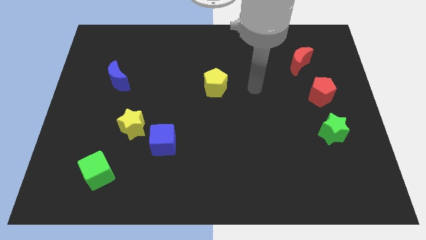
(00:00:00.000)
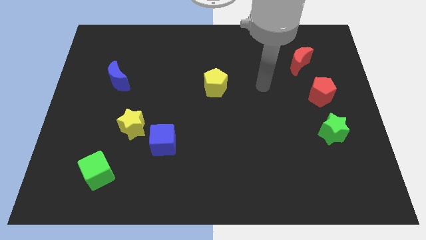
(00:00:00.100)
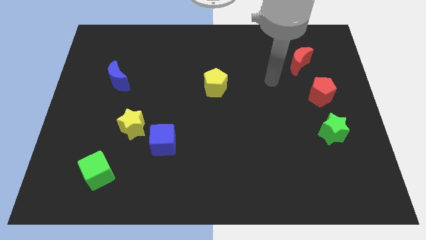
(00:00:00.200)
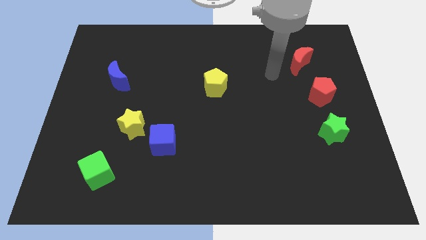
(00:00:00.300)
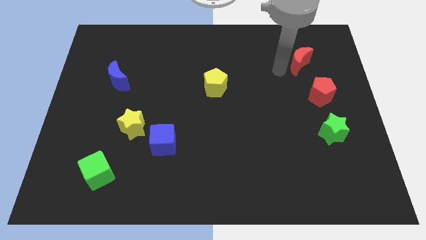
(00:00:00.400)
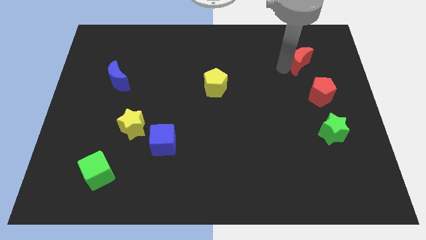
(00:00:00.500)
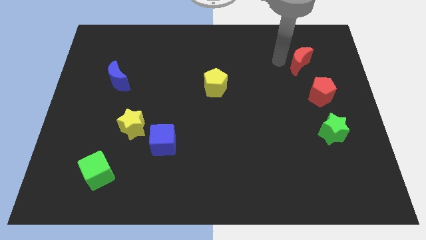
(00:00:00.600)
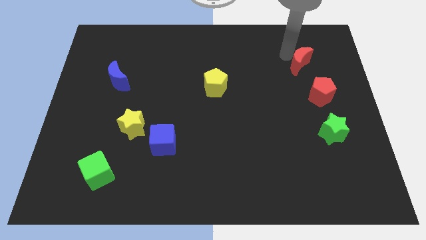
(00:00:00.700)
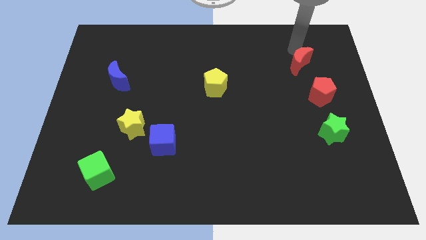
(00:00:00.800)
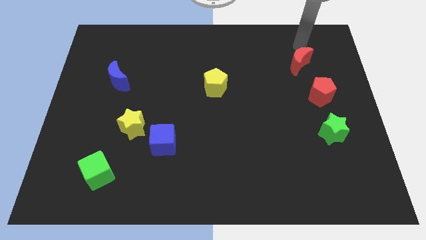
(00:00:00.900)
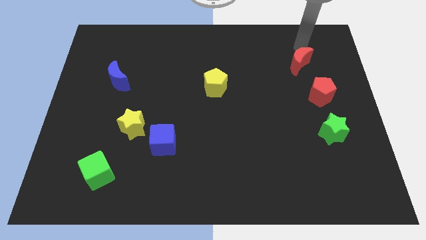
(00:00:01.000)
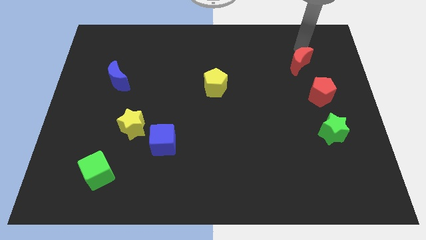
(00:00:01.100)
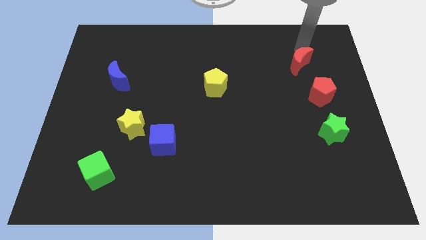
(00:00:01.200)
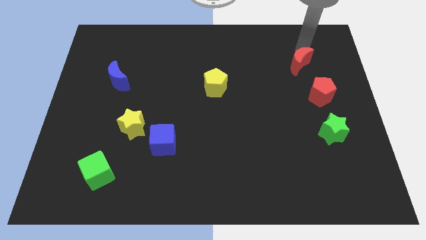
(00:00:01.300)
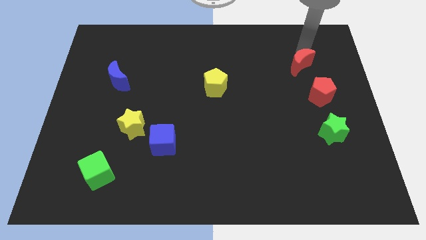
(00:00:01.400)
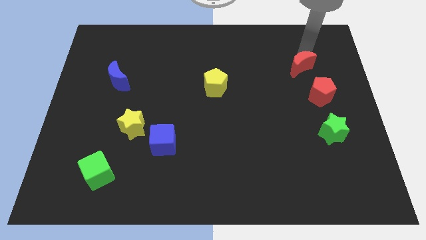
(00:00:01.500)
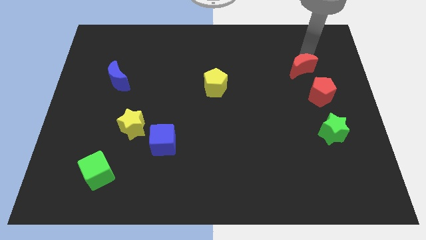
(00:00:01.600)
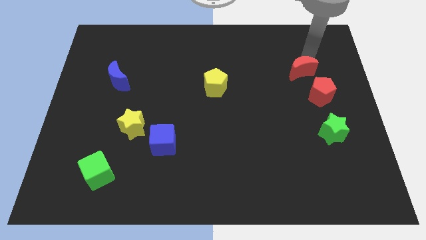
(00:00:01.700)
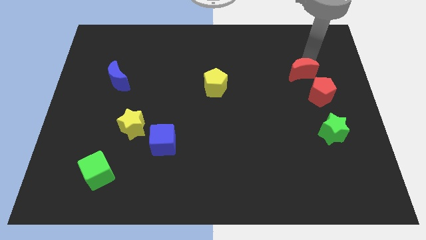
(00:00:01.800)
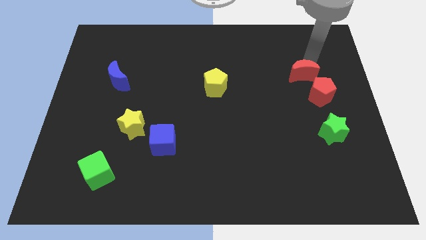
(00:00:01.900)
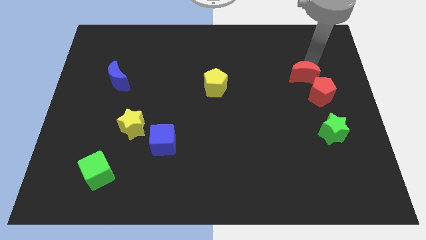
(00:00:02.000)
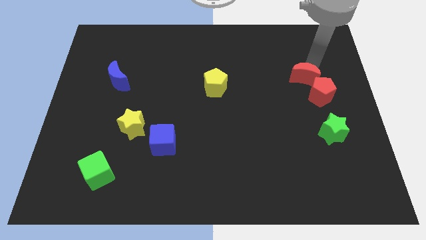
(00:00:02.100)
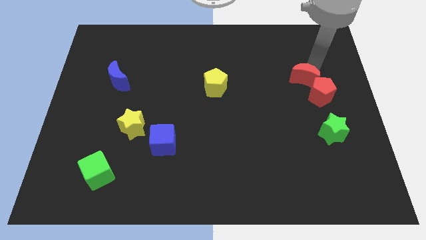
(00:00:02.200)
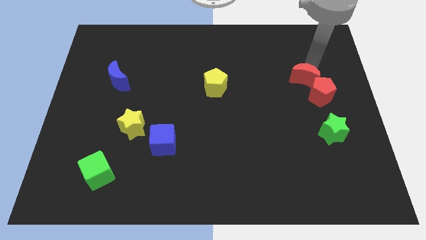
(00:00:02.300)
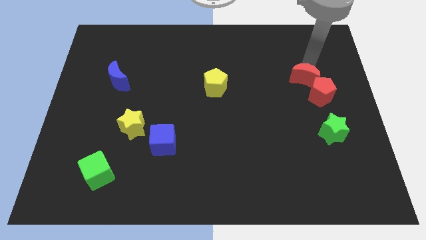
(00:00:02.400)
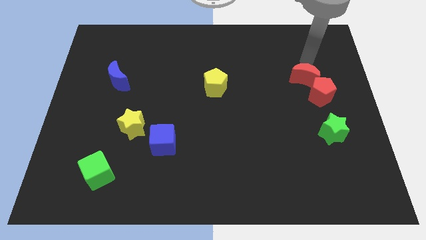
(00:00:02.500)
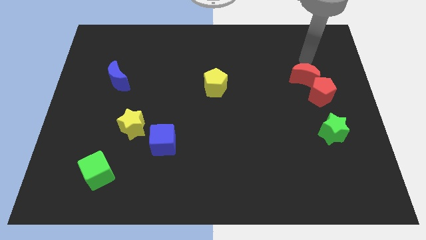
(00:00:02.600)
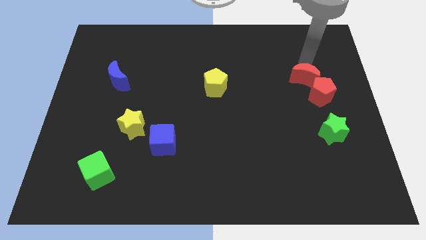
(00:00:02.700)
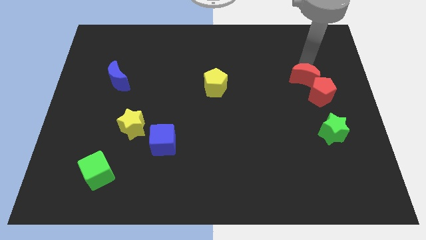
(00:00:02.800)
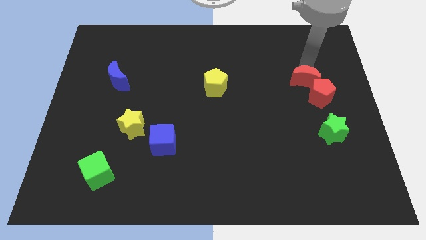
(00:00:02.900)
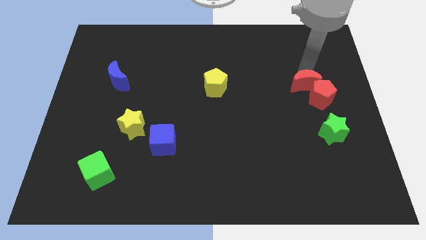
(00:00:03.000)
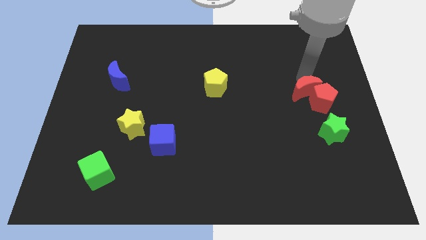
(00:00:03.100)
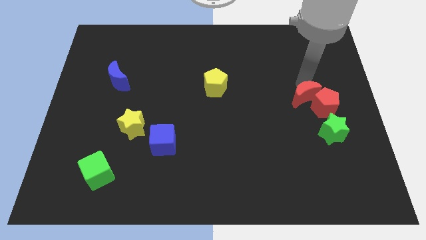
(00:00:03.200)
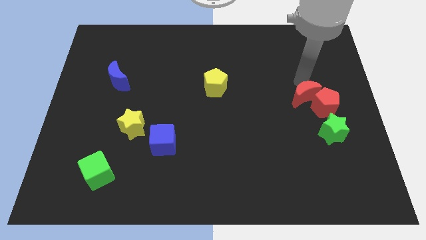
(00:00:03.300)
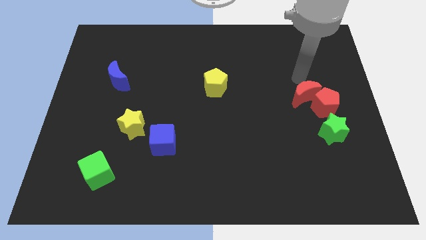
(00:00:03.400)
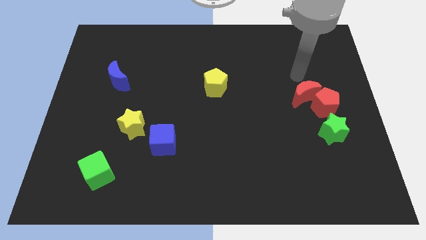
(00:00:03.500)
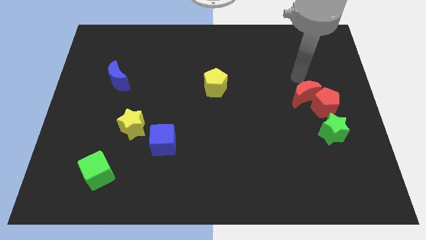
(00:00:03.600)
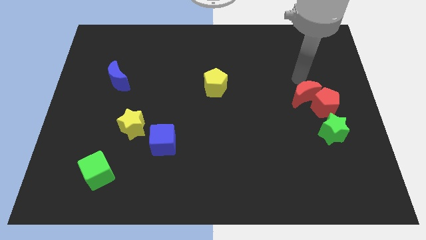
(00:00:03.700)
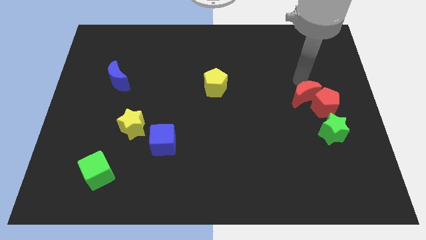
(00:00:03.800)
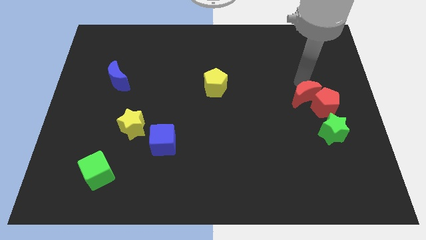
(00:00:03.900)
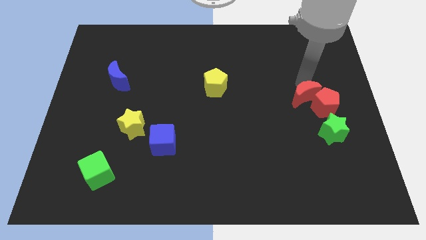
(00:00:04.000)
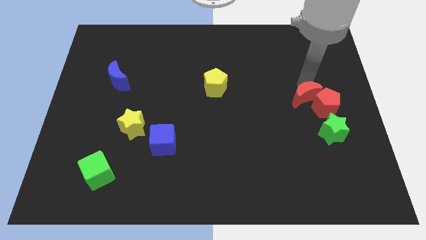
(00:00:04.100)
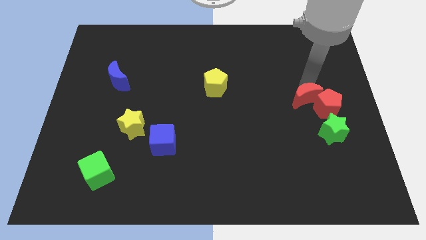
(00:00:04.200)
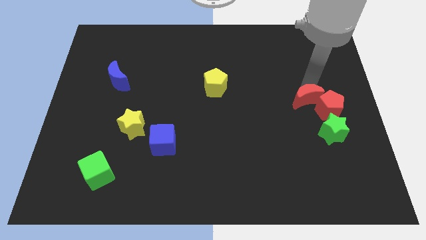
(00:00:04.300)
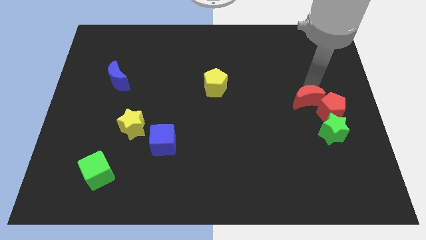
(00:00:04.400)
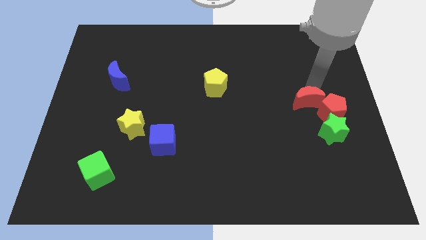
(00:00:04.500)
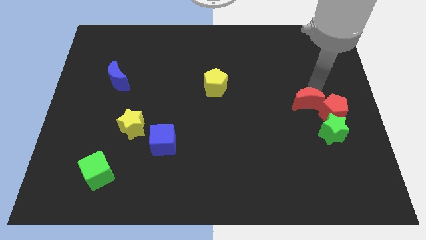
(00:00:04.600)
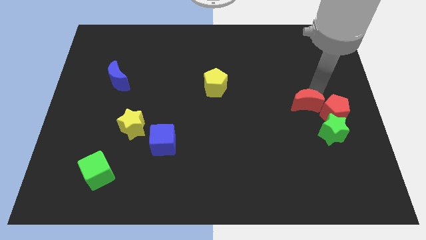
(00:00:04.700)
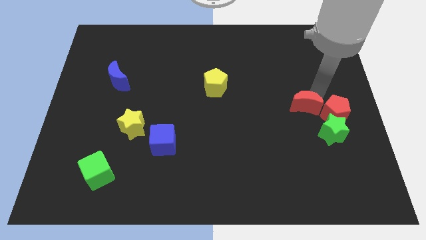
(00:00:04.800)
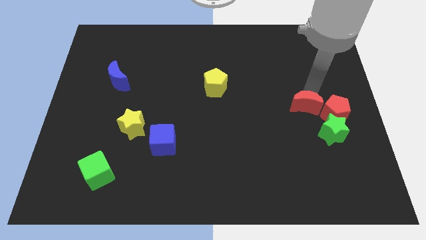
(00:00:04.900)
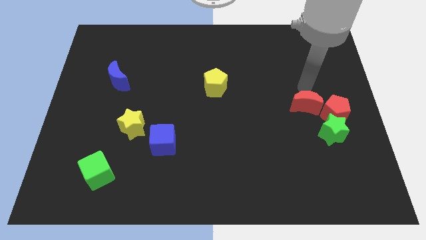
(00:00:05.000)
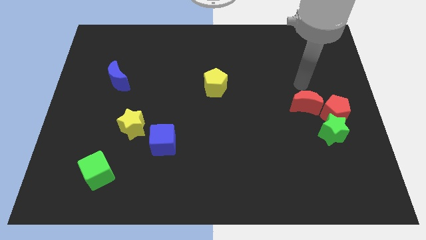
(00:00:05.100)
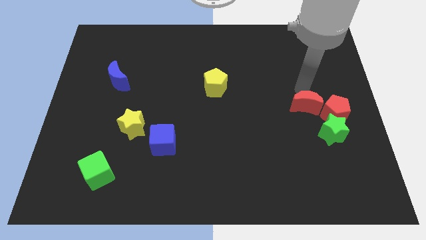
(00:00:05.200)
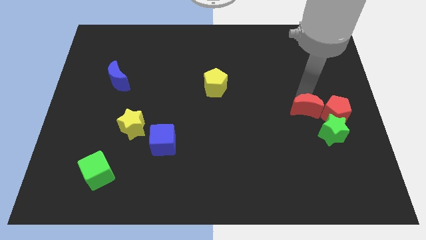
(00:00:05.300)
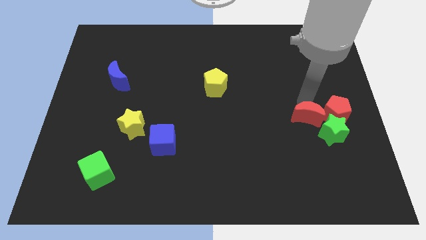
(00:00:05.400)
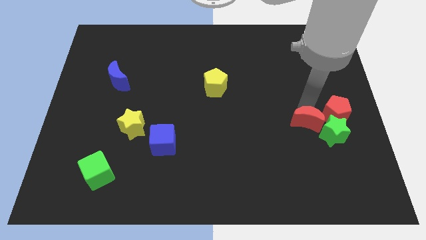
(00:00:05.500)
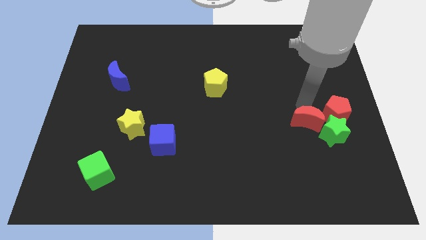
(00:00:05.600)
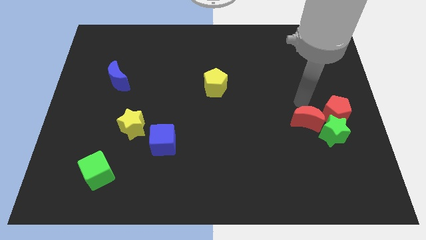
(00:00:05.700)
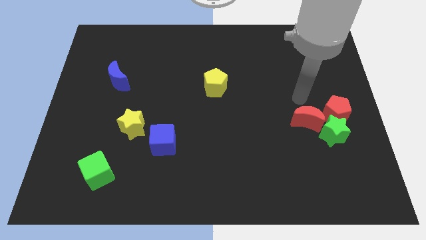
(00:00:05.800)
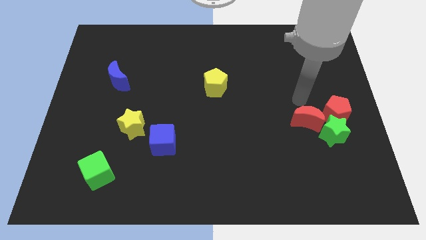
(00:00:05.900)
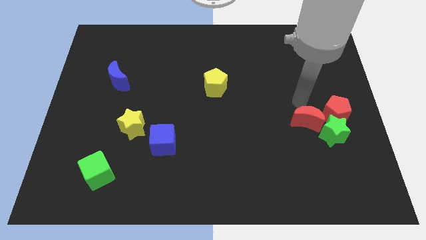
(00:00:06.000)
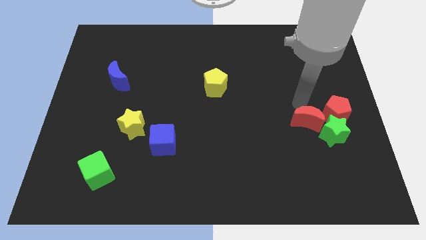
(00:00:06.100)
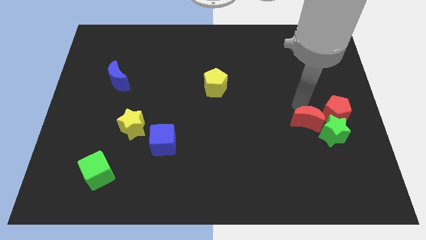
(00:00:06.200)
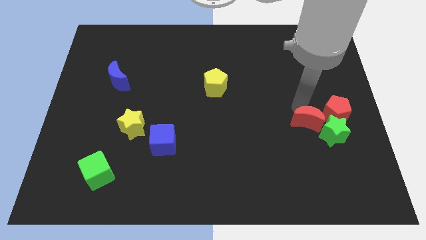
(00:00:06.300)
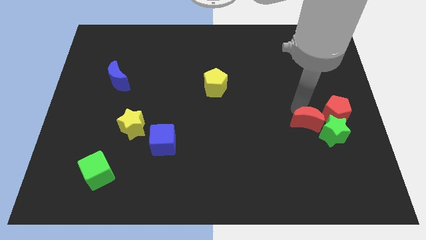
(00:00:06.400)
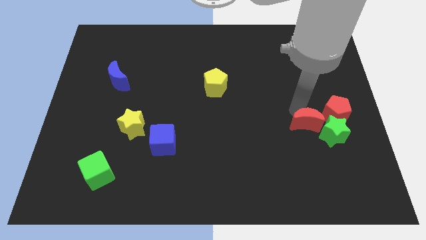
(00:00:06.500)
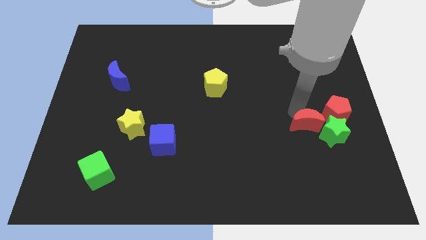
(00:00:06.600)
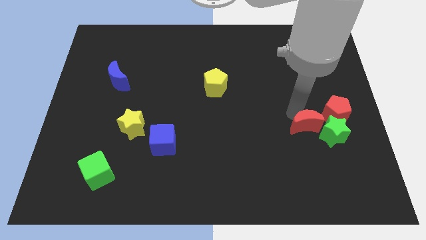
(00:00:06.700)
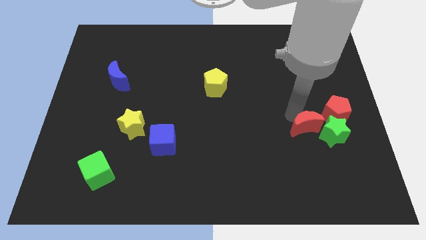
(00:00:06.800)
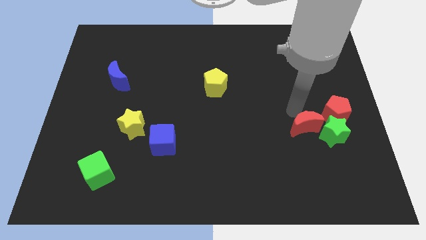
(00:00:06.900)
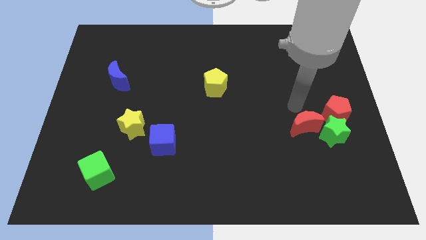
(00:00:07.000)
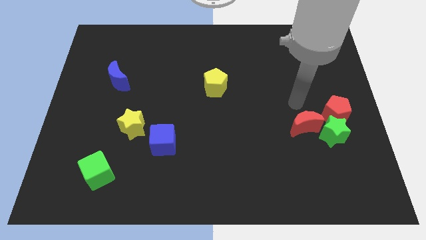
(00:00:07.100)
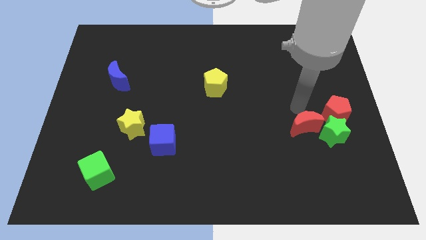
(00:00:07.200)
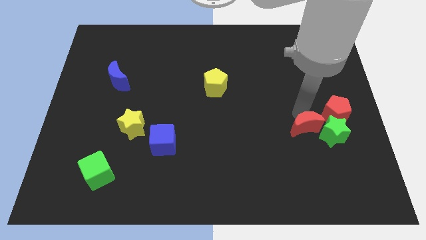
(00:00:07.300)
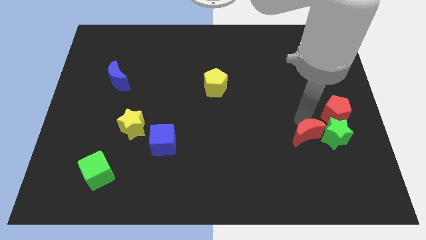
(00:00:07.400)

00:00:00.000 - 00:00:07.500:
move the red moon to the bottom left side of the green star

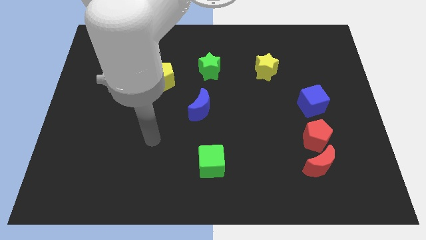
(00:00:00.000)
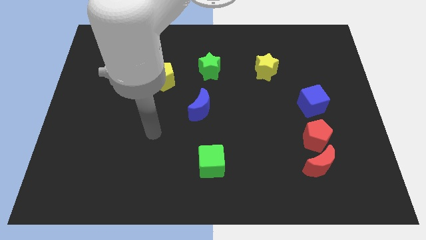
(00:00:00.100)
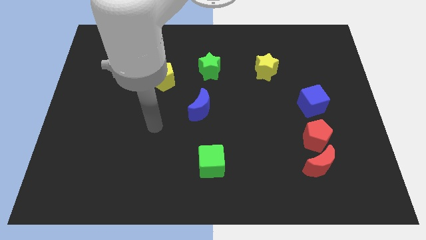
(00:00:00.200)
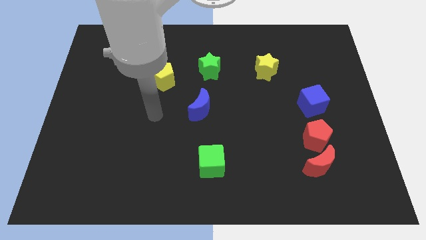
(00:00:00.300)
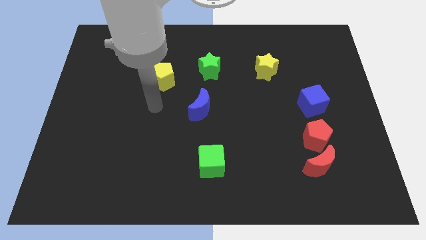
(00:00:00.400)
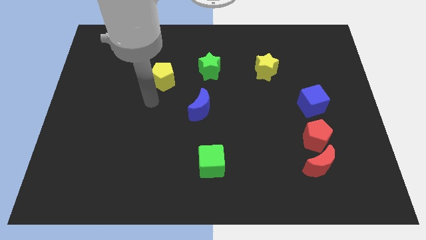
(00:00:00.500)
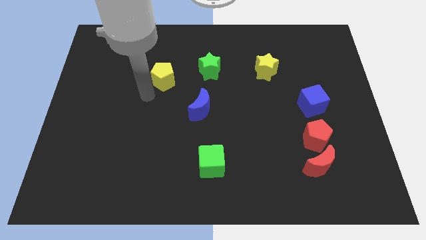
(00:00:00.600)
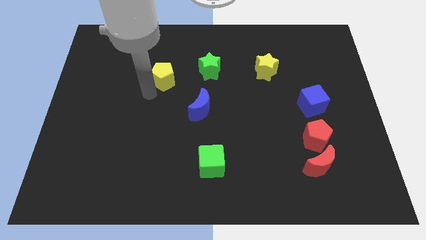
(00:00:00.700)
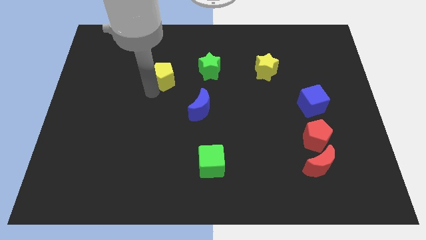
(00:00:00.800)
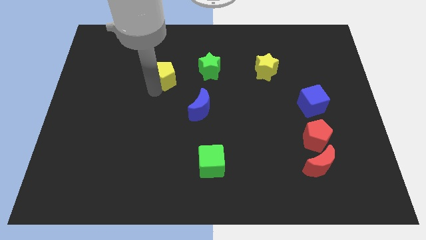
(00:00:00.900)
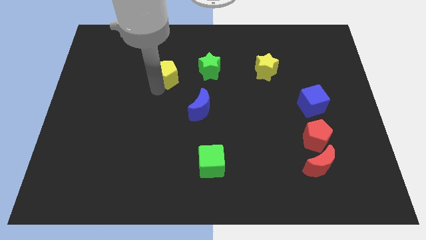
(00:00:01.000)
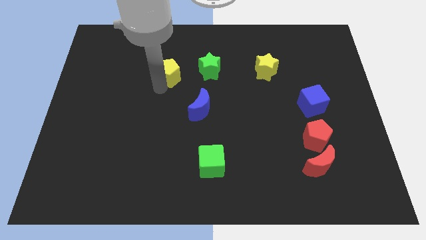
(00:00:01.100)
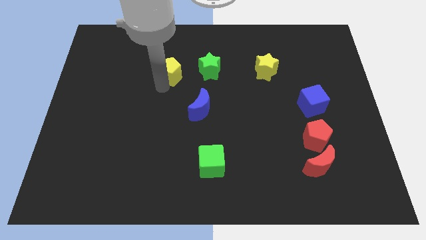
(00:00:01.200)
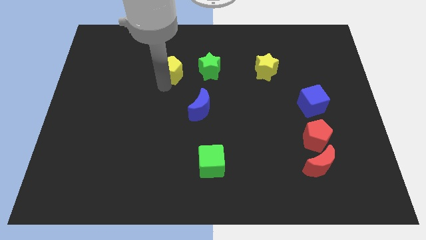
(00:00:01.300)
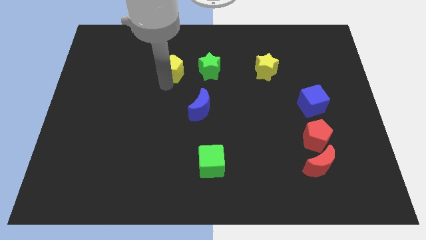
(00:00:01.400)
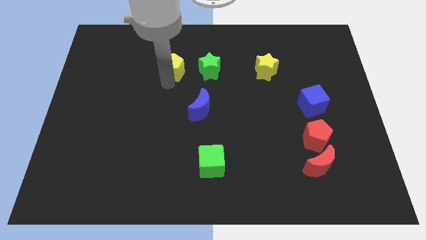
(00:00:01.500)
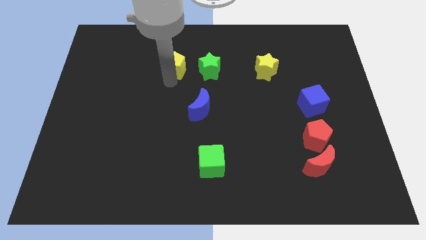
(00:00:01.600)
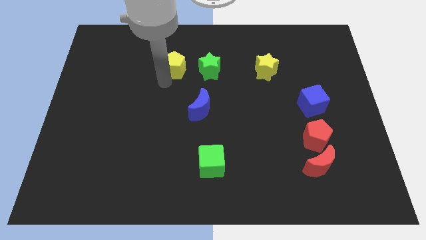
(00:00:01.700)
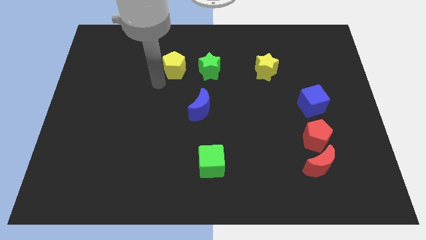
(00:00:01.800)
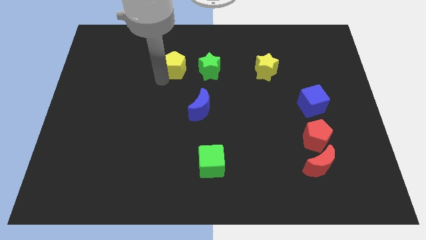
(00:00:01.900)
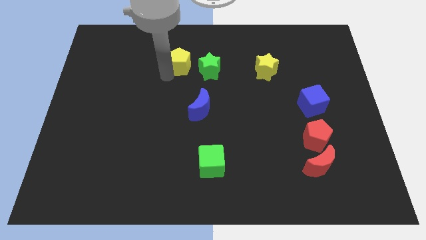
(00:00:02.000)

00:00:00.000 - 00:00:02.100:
slide the yellow pentagon to the top left side of the green star
